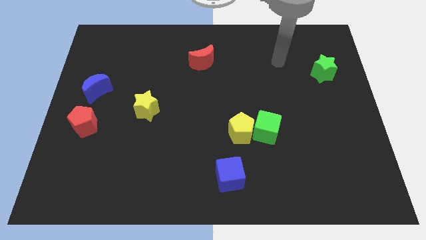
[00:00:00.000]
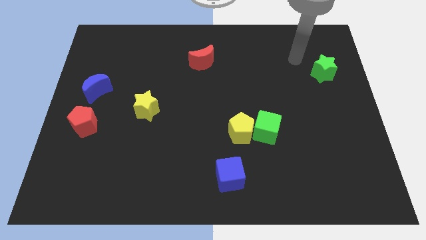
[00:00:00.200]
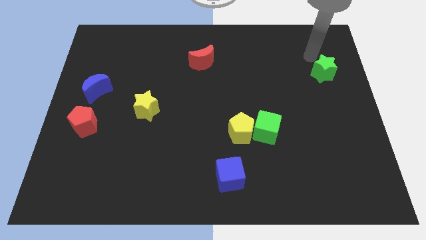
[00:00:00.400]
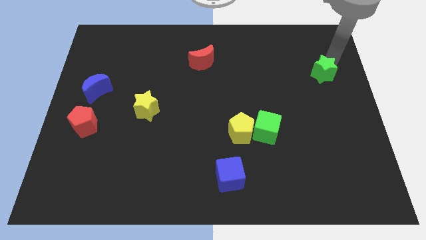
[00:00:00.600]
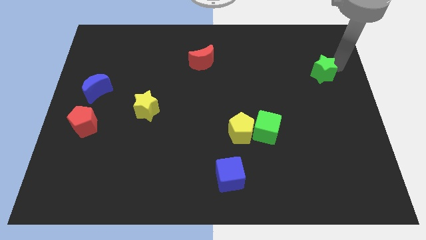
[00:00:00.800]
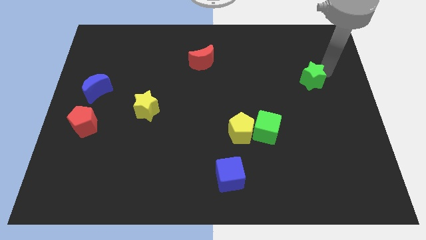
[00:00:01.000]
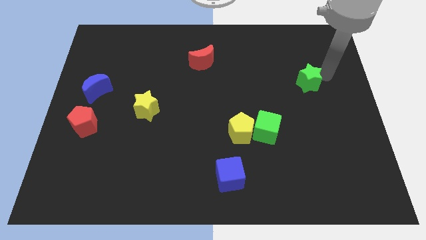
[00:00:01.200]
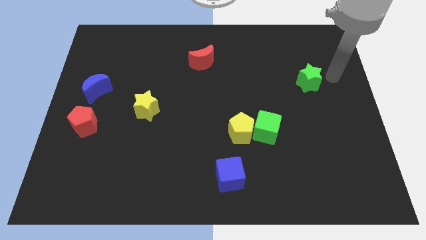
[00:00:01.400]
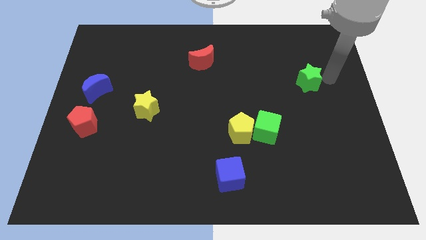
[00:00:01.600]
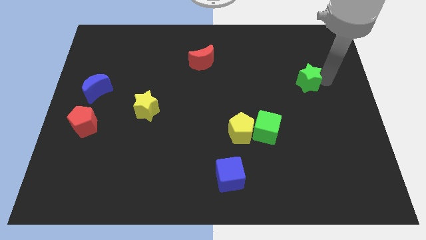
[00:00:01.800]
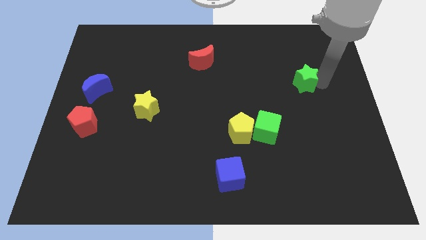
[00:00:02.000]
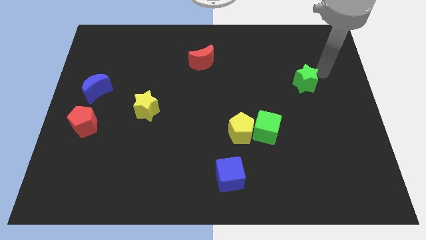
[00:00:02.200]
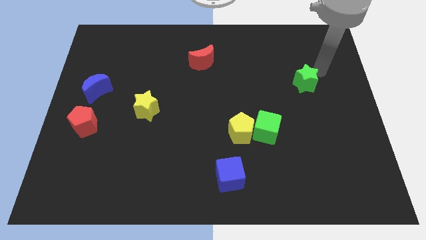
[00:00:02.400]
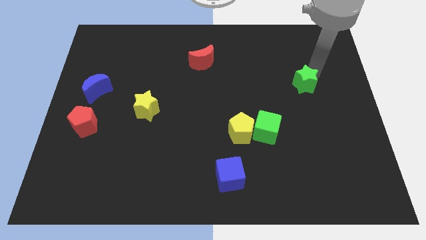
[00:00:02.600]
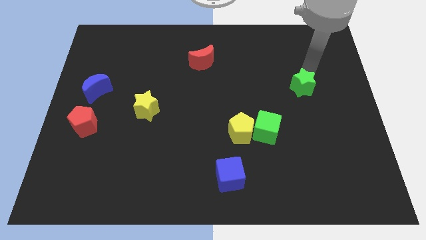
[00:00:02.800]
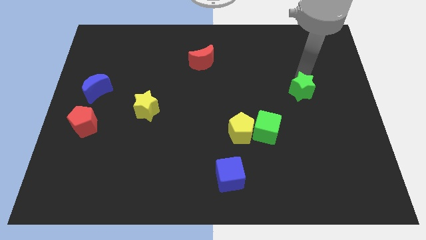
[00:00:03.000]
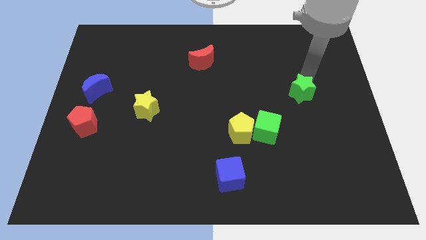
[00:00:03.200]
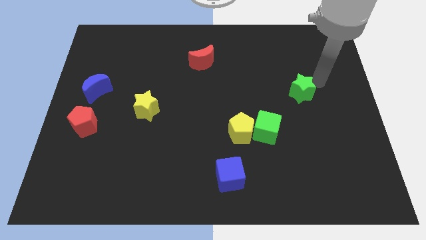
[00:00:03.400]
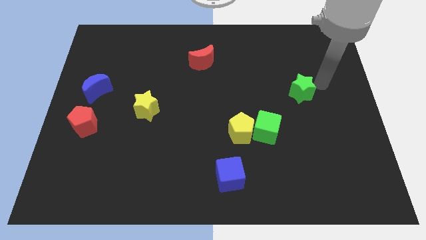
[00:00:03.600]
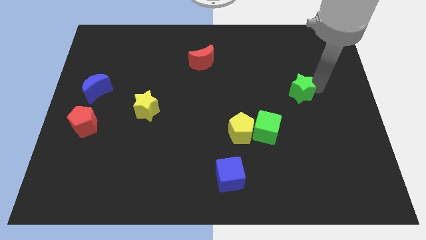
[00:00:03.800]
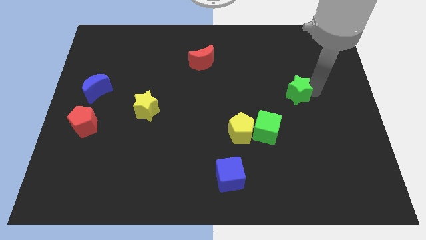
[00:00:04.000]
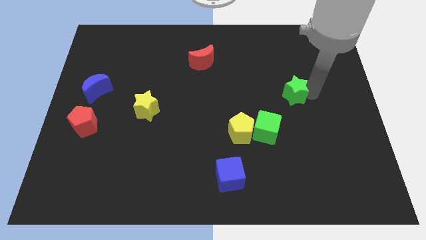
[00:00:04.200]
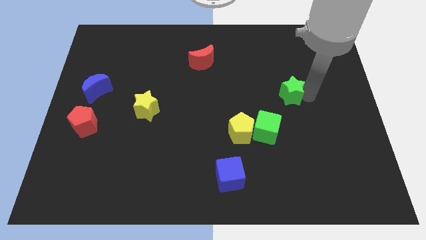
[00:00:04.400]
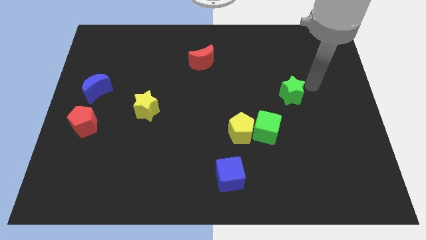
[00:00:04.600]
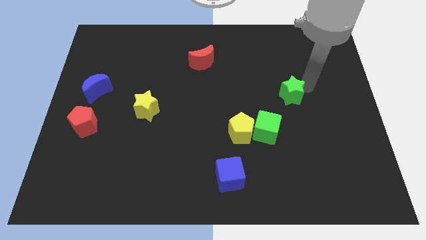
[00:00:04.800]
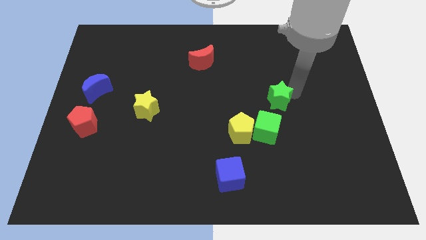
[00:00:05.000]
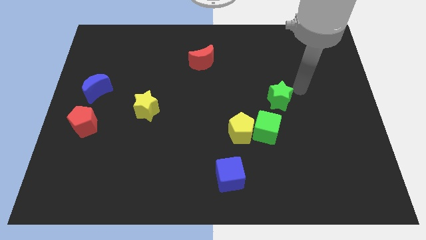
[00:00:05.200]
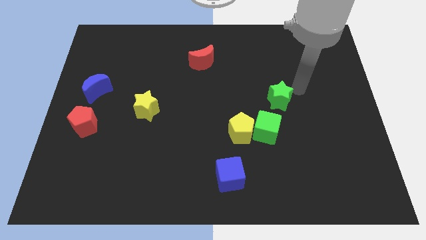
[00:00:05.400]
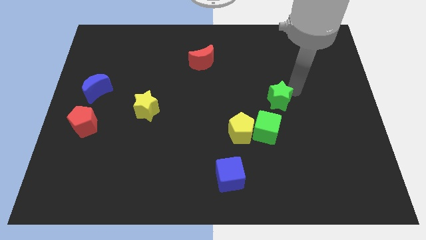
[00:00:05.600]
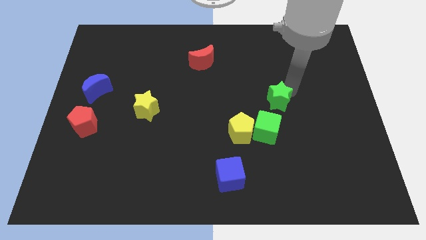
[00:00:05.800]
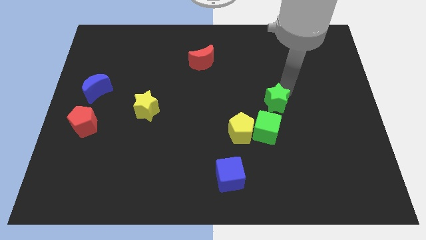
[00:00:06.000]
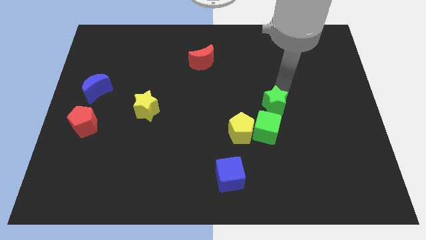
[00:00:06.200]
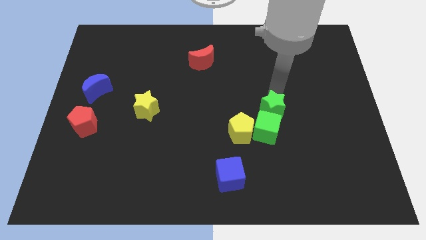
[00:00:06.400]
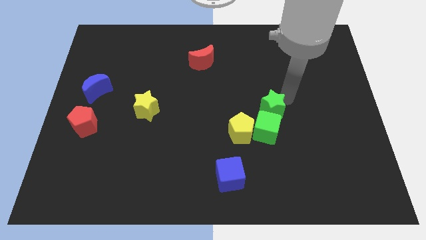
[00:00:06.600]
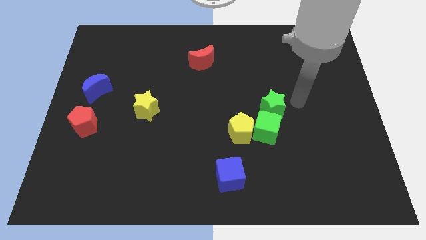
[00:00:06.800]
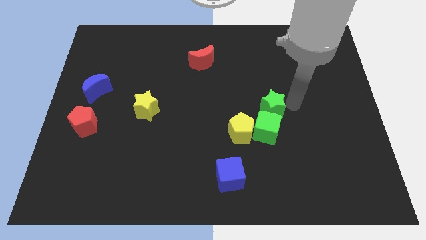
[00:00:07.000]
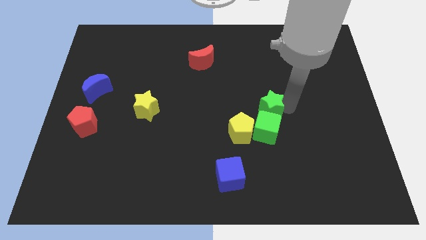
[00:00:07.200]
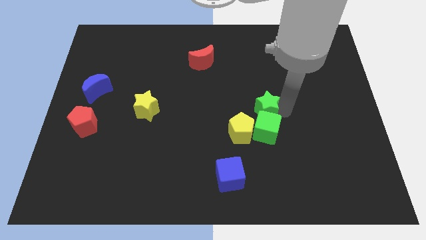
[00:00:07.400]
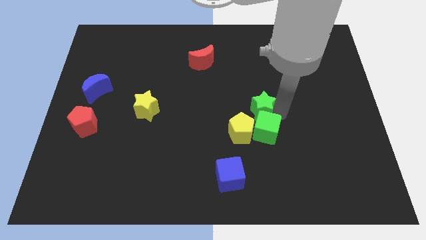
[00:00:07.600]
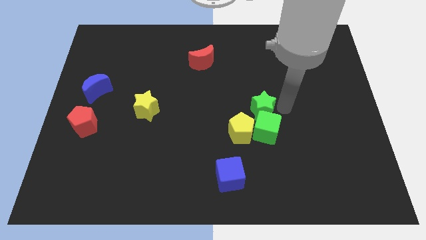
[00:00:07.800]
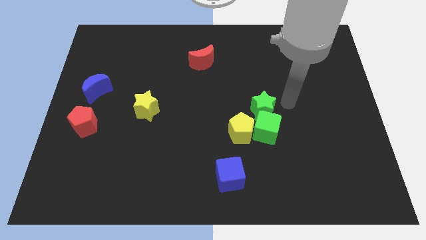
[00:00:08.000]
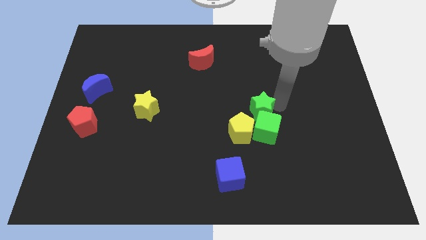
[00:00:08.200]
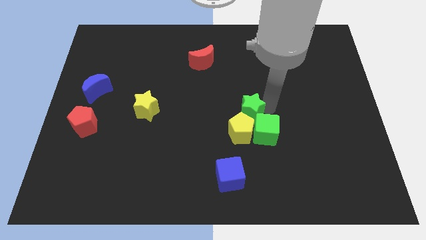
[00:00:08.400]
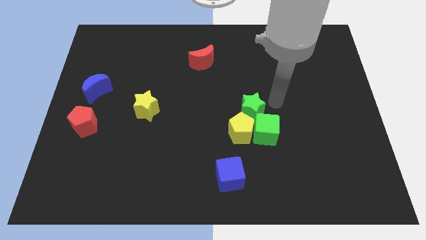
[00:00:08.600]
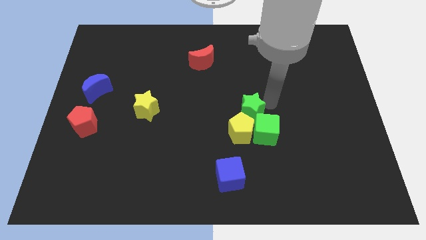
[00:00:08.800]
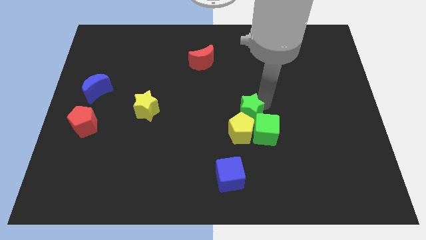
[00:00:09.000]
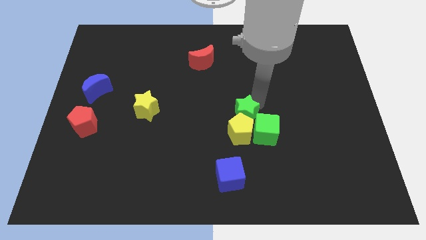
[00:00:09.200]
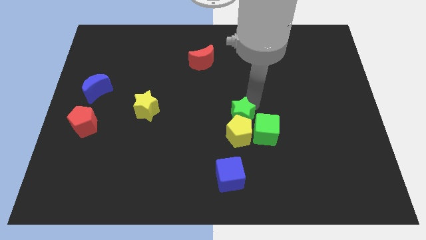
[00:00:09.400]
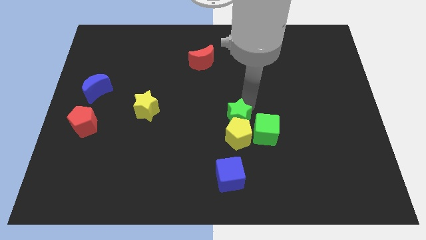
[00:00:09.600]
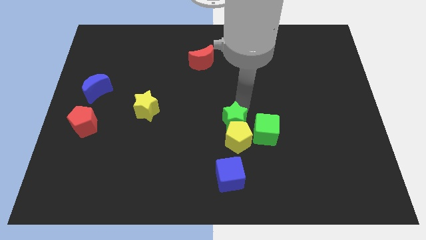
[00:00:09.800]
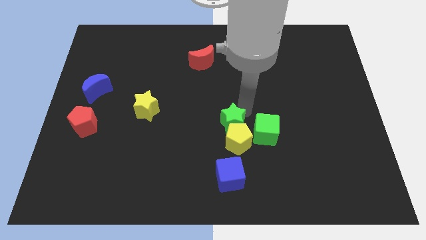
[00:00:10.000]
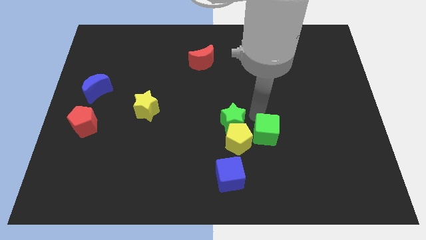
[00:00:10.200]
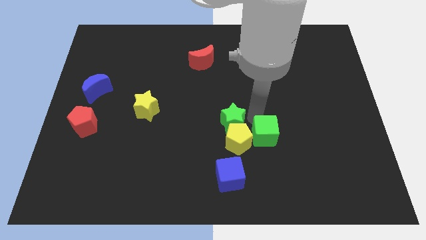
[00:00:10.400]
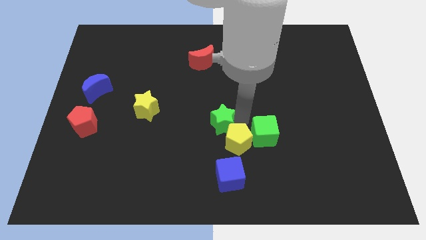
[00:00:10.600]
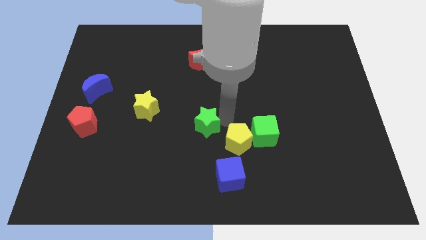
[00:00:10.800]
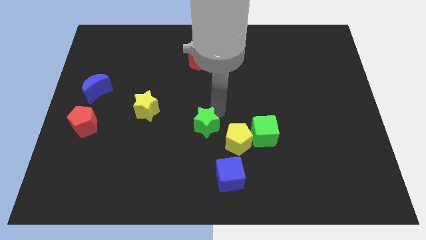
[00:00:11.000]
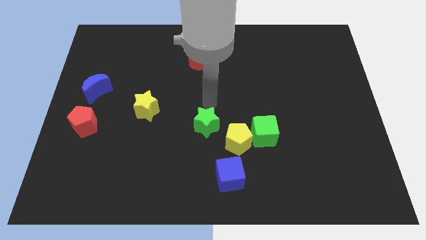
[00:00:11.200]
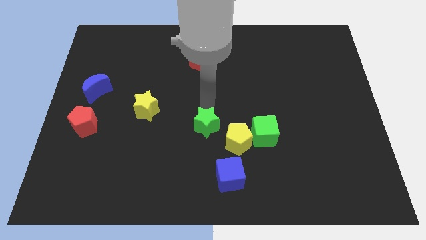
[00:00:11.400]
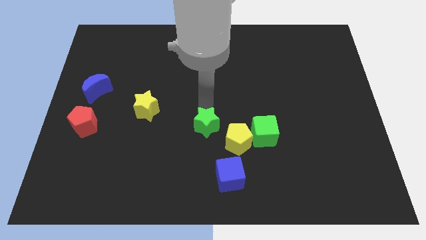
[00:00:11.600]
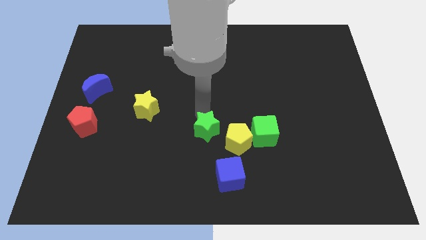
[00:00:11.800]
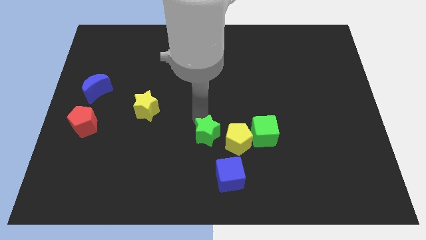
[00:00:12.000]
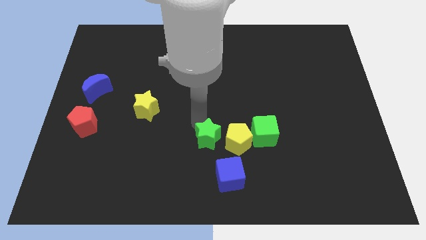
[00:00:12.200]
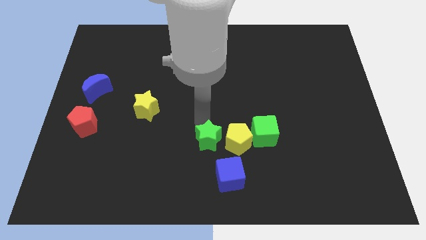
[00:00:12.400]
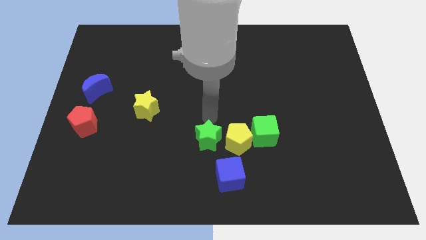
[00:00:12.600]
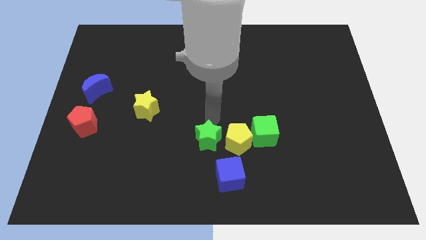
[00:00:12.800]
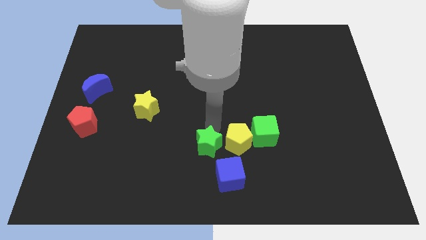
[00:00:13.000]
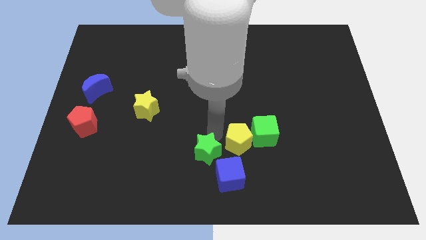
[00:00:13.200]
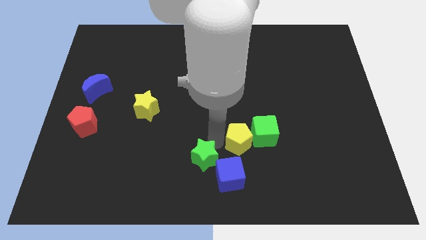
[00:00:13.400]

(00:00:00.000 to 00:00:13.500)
push the green star to the left side of the blue cube
